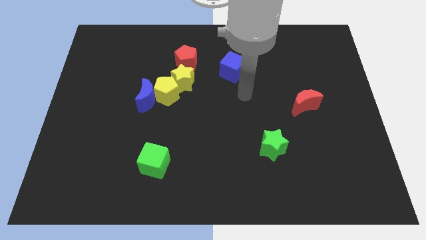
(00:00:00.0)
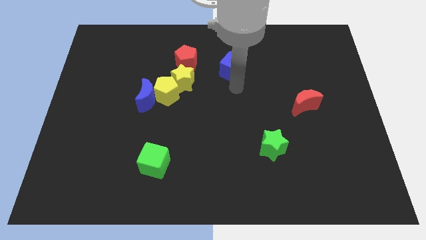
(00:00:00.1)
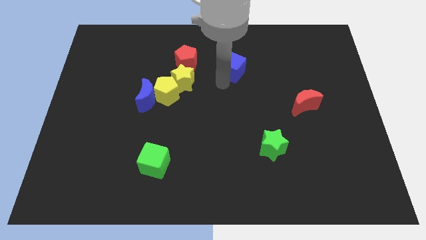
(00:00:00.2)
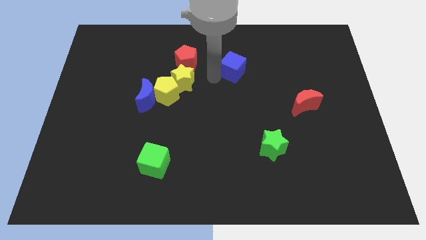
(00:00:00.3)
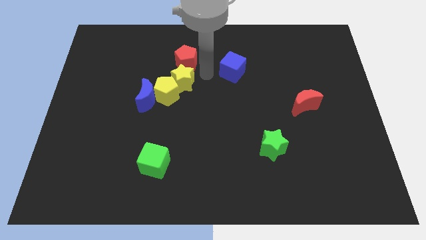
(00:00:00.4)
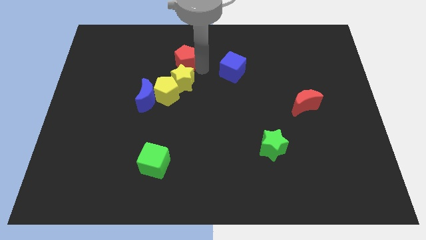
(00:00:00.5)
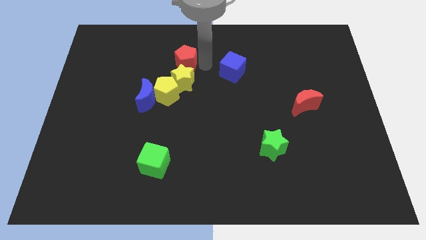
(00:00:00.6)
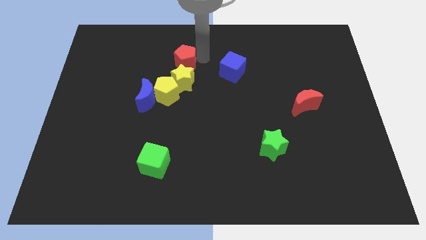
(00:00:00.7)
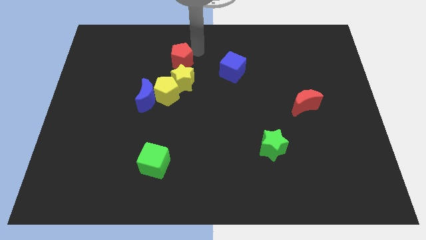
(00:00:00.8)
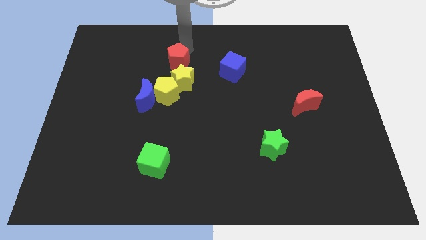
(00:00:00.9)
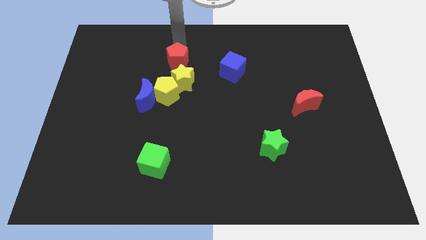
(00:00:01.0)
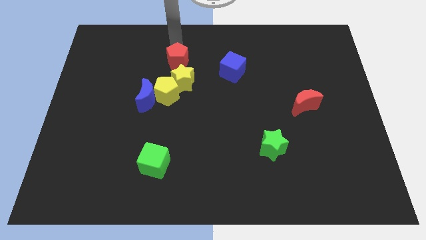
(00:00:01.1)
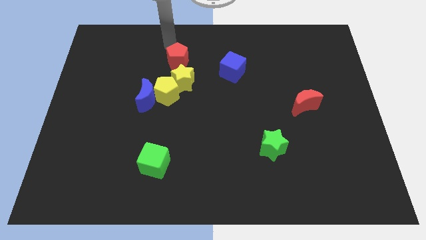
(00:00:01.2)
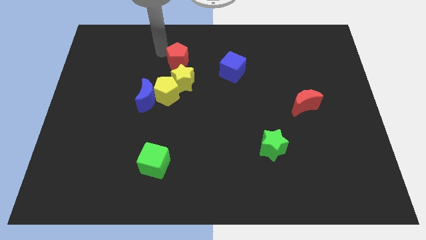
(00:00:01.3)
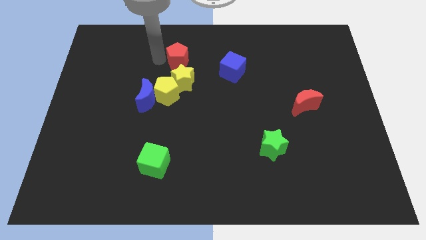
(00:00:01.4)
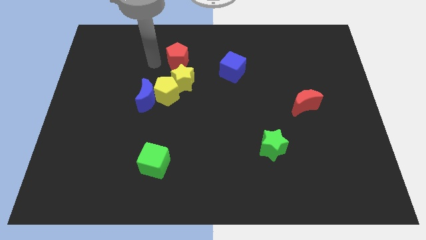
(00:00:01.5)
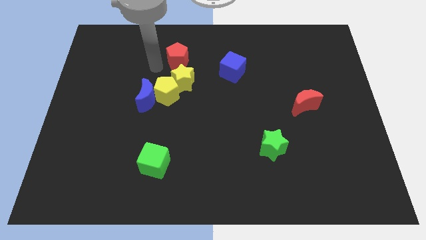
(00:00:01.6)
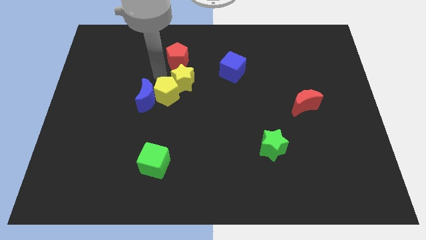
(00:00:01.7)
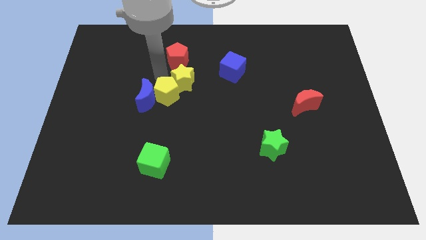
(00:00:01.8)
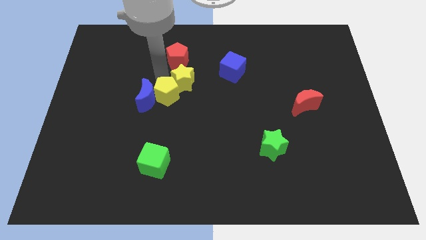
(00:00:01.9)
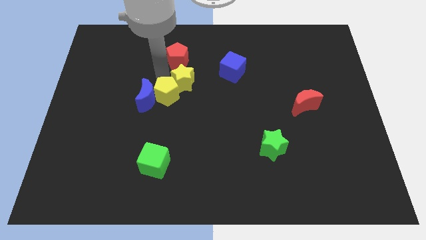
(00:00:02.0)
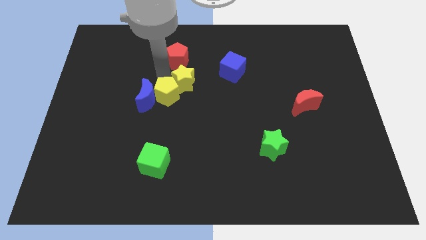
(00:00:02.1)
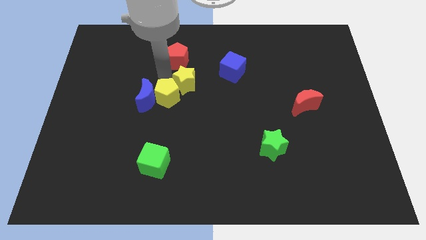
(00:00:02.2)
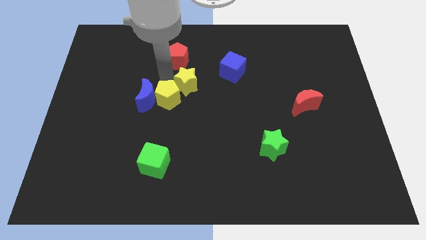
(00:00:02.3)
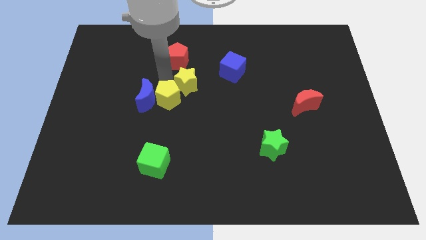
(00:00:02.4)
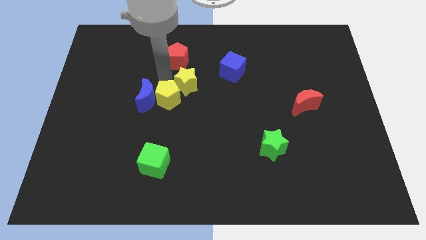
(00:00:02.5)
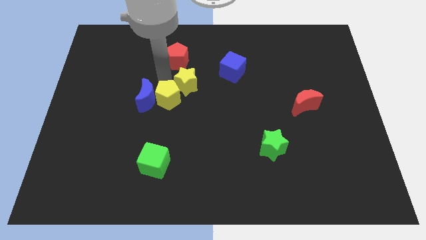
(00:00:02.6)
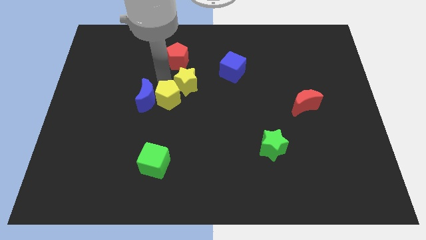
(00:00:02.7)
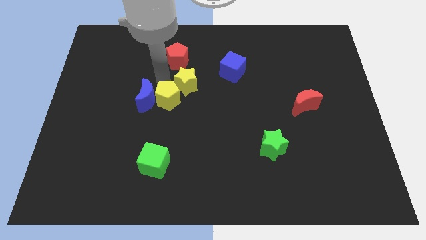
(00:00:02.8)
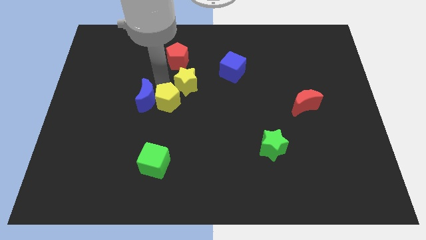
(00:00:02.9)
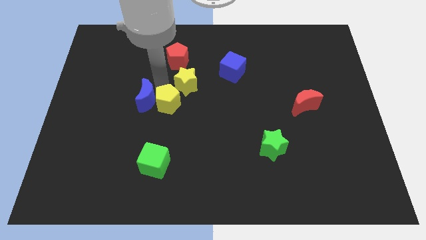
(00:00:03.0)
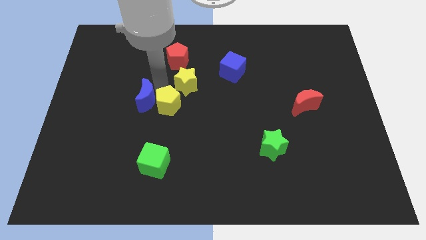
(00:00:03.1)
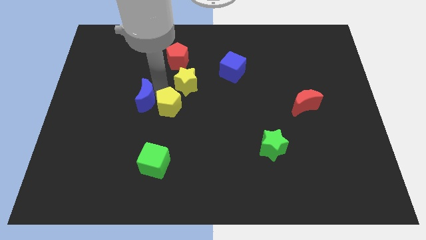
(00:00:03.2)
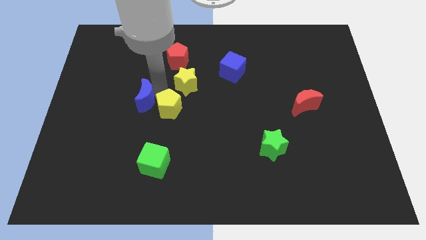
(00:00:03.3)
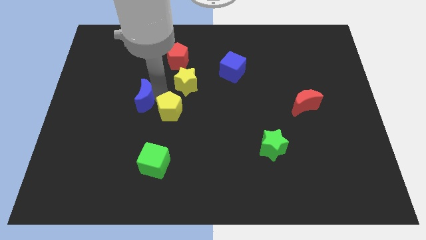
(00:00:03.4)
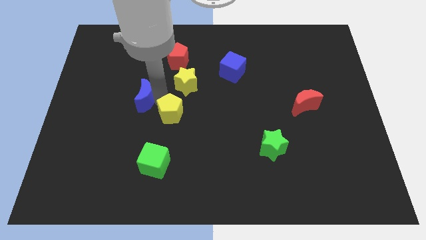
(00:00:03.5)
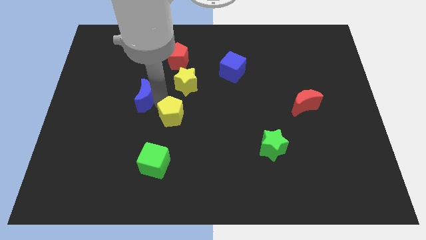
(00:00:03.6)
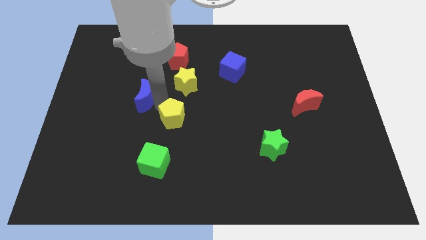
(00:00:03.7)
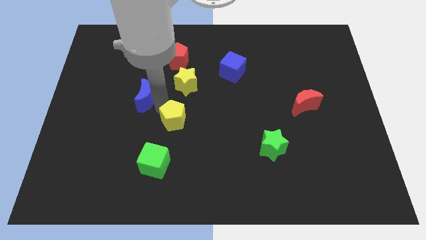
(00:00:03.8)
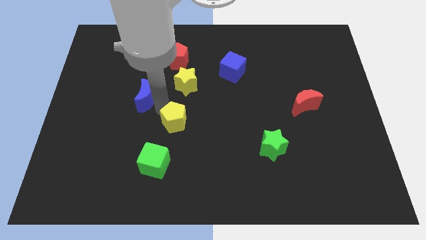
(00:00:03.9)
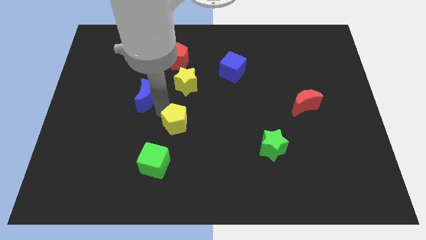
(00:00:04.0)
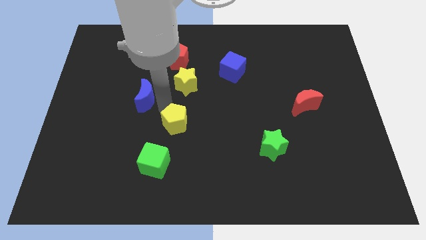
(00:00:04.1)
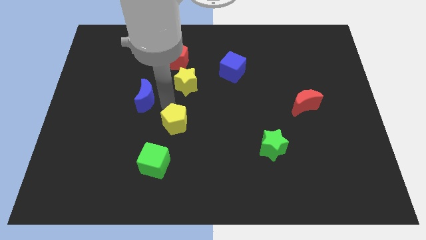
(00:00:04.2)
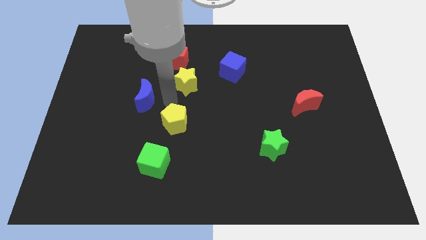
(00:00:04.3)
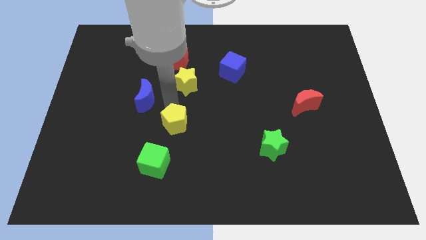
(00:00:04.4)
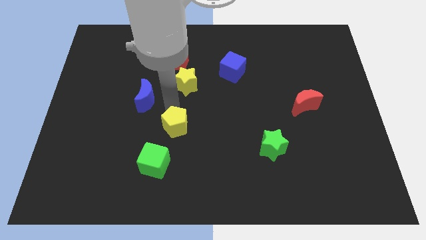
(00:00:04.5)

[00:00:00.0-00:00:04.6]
separate the yellow pentagon from the blue moon and yellow star

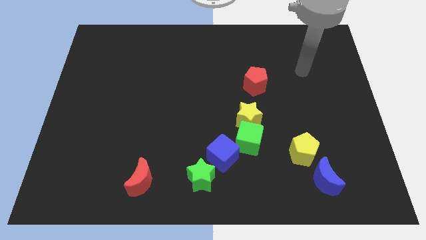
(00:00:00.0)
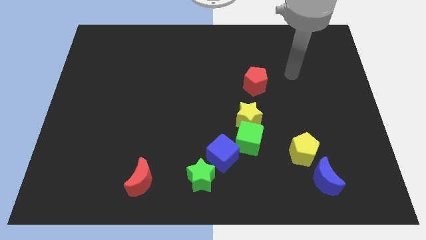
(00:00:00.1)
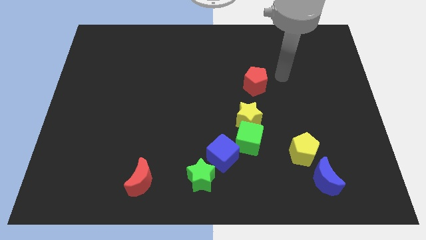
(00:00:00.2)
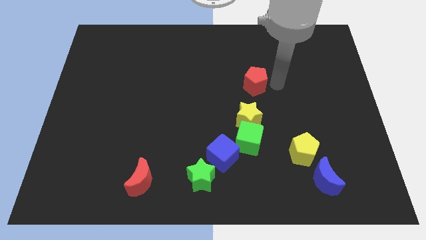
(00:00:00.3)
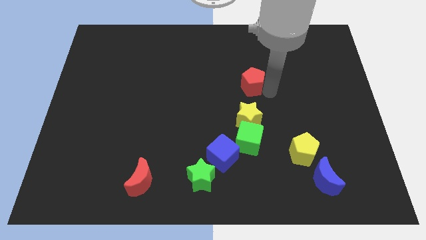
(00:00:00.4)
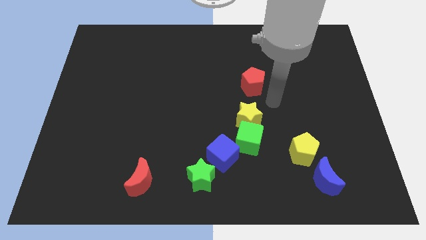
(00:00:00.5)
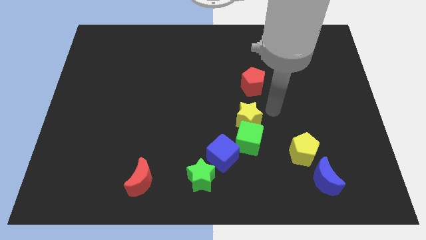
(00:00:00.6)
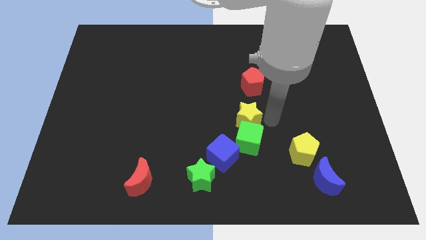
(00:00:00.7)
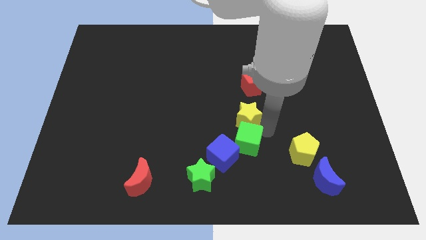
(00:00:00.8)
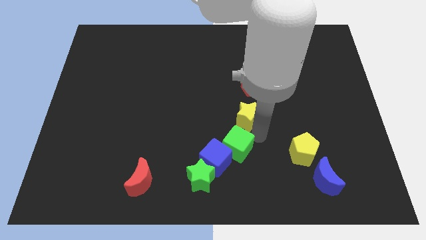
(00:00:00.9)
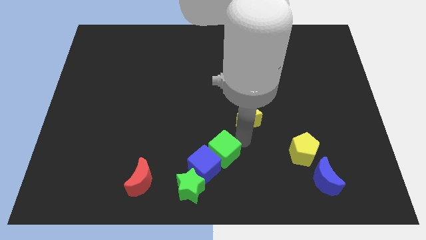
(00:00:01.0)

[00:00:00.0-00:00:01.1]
move the yellow star away from the green cube

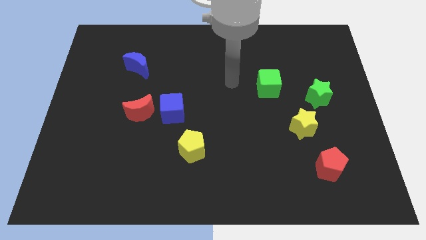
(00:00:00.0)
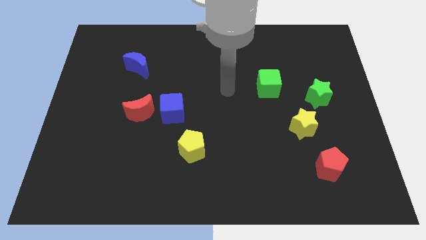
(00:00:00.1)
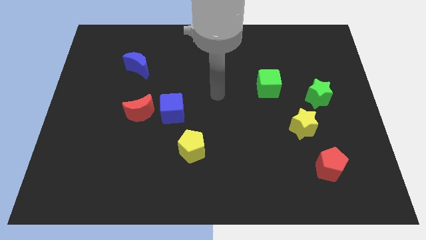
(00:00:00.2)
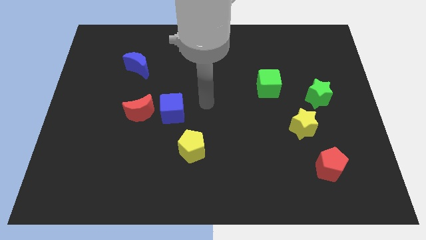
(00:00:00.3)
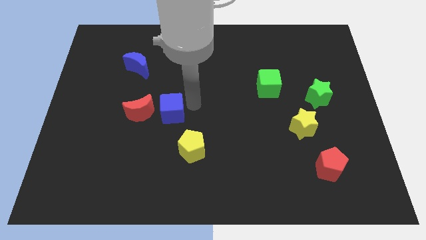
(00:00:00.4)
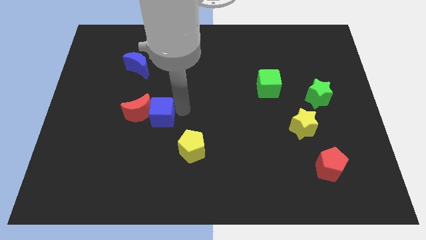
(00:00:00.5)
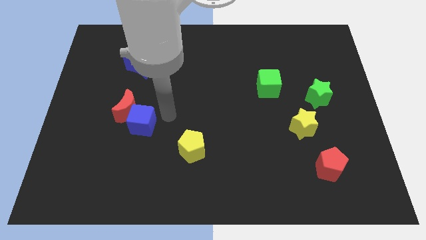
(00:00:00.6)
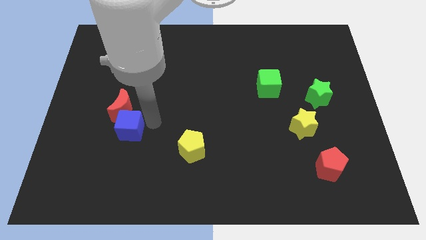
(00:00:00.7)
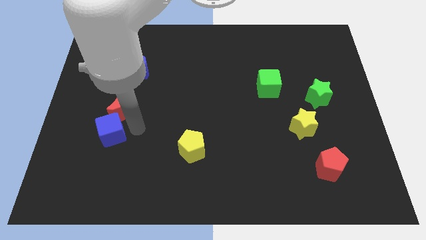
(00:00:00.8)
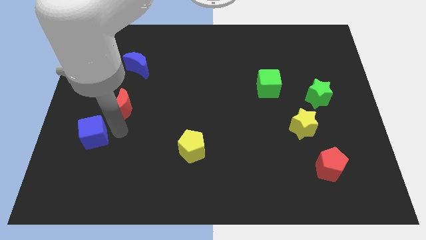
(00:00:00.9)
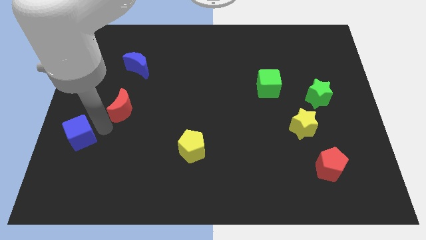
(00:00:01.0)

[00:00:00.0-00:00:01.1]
pull the red moon apart from the blue cube

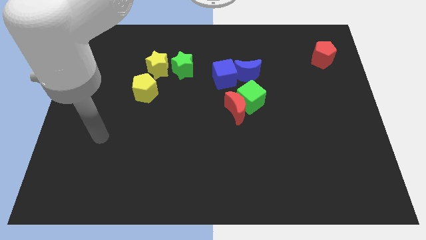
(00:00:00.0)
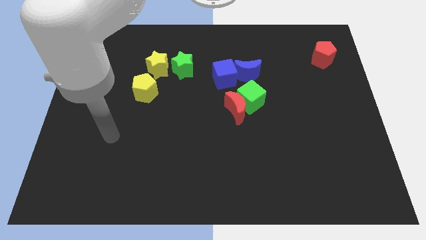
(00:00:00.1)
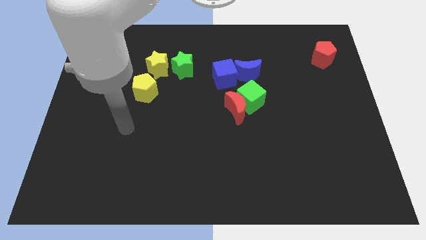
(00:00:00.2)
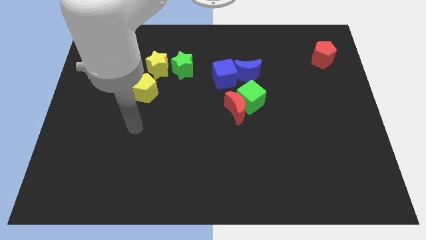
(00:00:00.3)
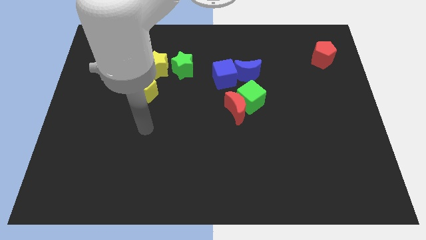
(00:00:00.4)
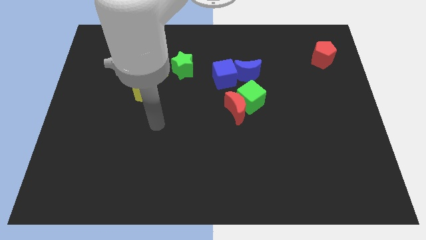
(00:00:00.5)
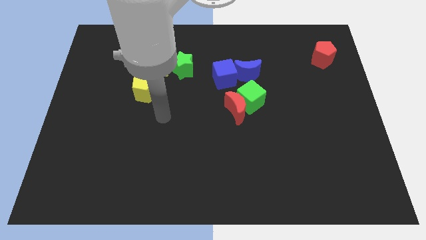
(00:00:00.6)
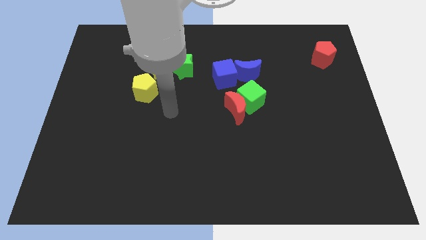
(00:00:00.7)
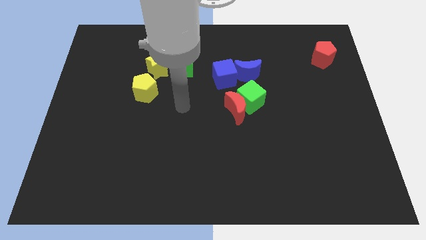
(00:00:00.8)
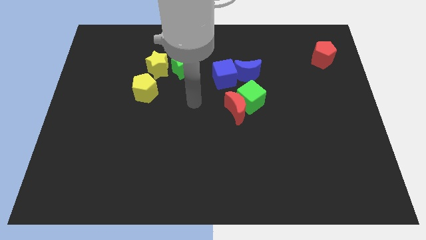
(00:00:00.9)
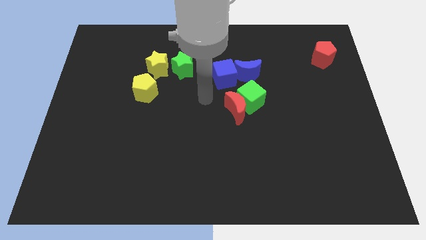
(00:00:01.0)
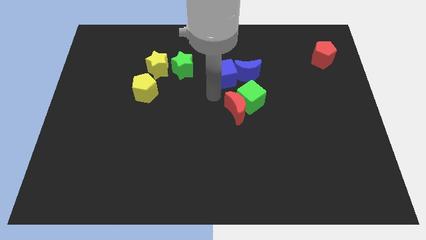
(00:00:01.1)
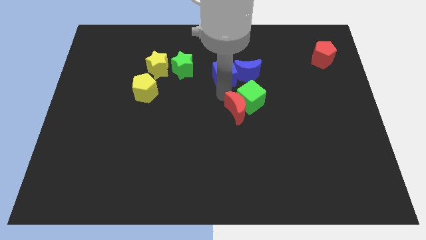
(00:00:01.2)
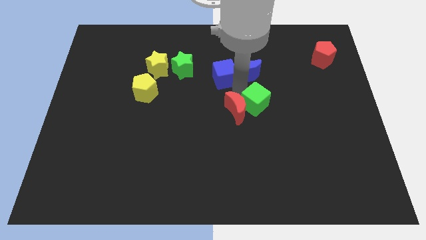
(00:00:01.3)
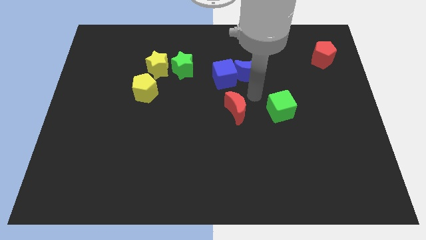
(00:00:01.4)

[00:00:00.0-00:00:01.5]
pull the red moon apart from the green cube

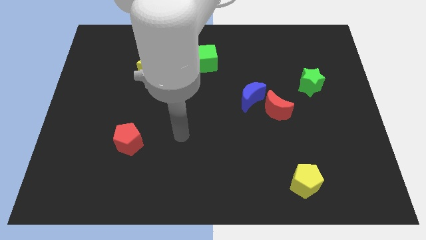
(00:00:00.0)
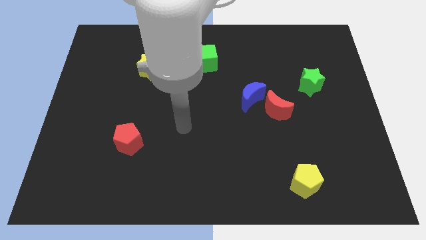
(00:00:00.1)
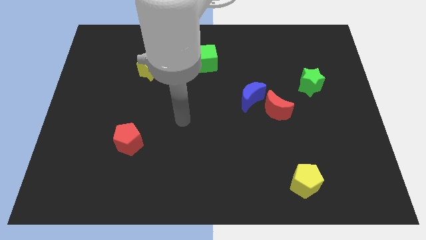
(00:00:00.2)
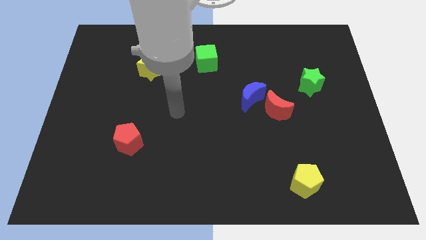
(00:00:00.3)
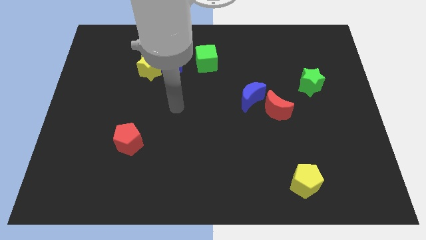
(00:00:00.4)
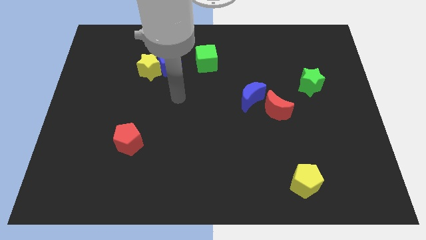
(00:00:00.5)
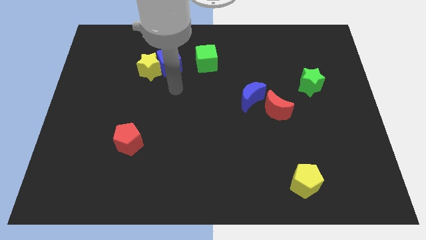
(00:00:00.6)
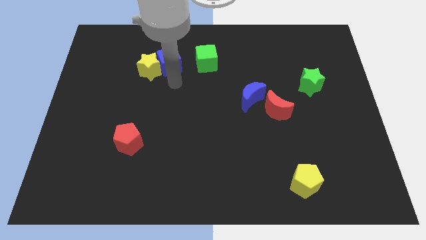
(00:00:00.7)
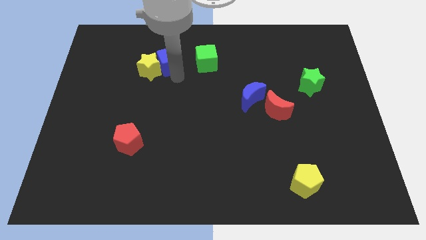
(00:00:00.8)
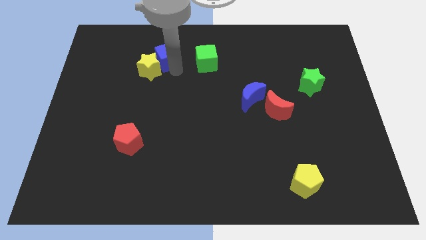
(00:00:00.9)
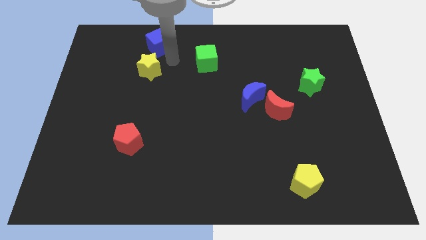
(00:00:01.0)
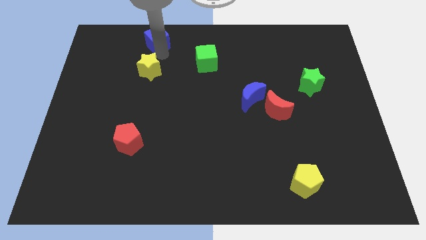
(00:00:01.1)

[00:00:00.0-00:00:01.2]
separate the yellow star from the blue cube
